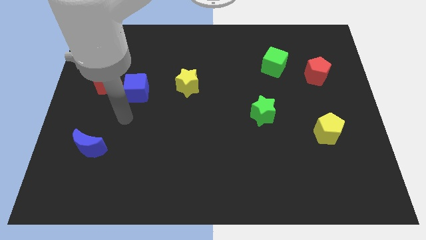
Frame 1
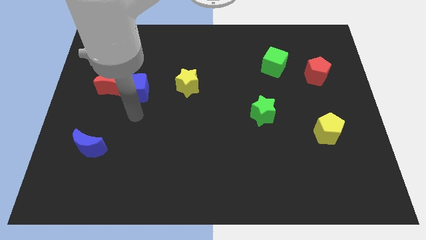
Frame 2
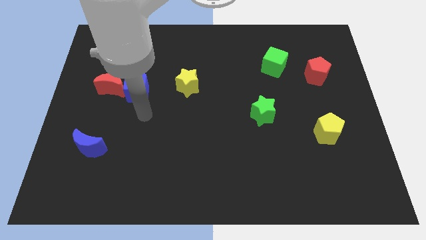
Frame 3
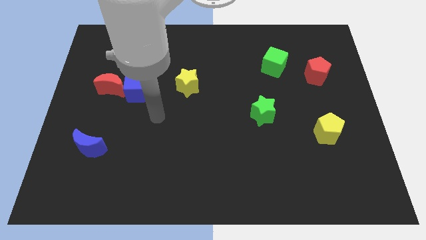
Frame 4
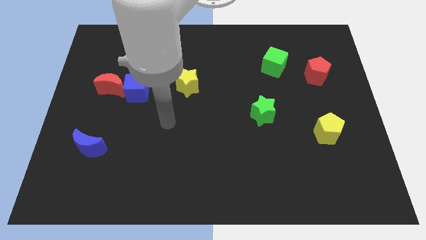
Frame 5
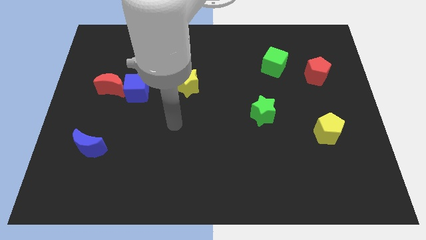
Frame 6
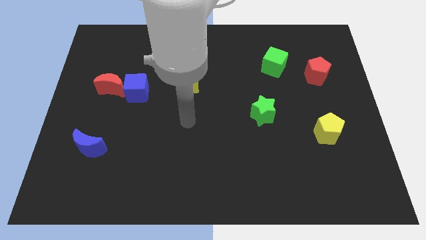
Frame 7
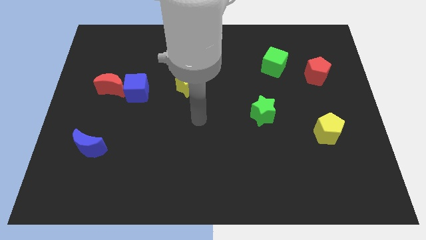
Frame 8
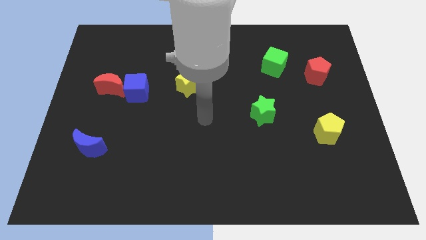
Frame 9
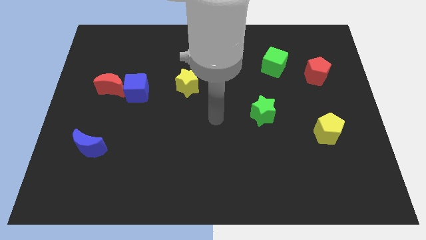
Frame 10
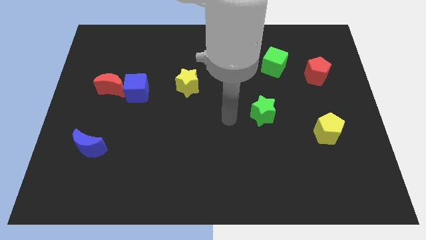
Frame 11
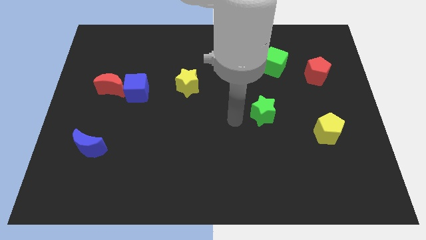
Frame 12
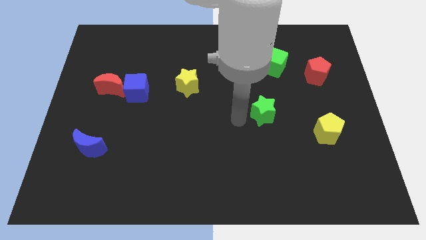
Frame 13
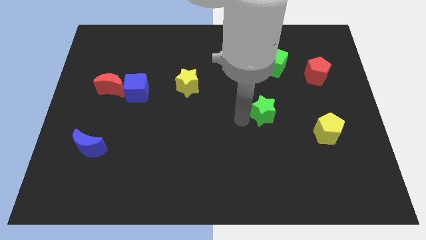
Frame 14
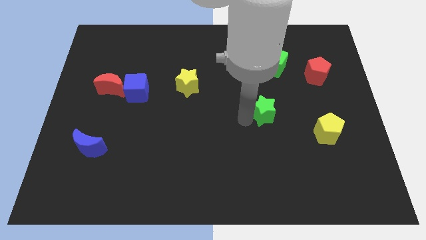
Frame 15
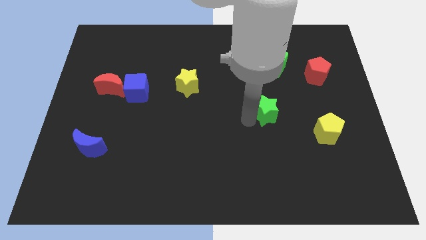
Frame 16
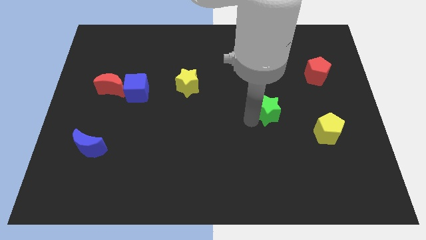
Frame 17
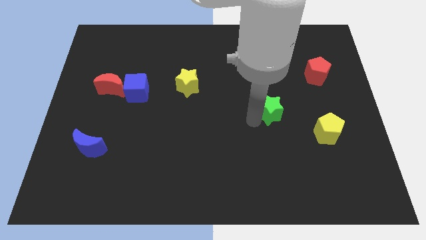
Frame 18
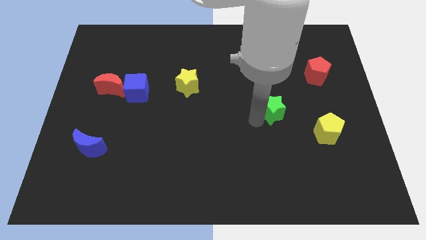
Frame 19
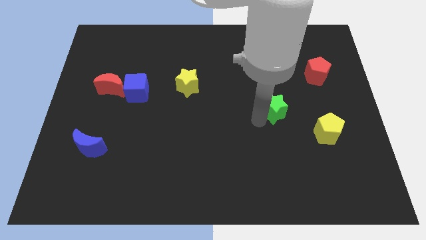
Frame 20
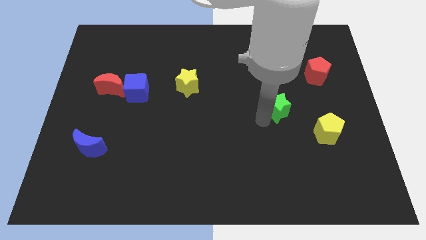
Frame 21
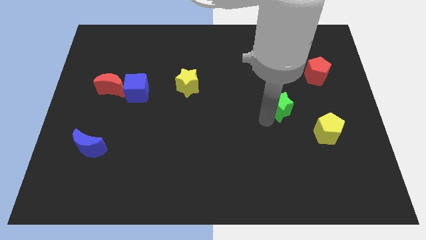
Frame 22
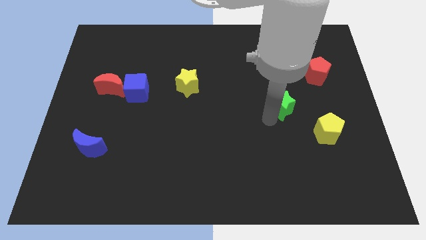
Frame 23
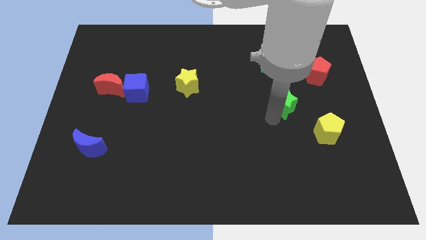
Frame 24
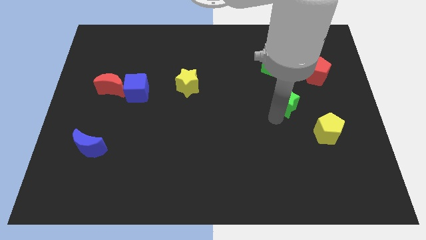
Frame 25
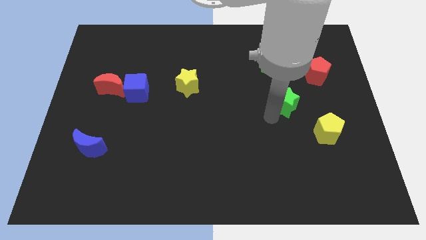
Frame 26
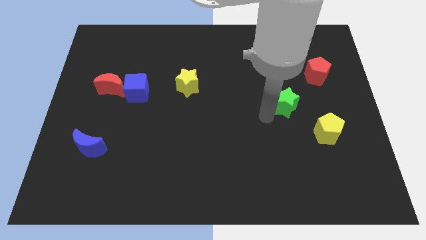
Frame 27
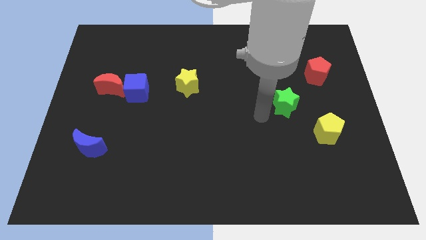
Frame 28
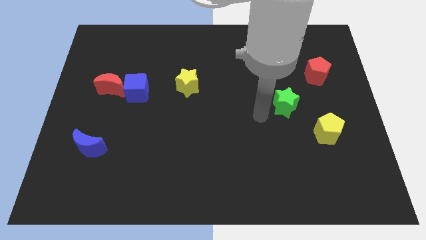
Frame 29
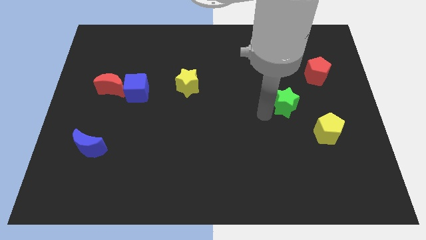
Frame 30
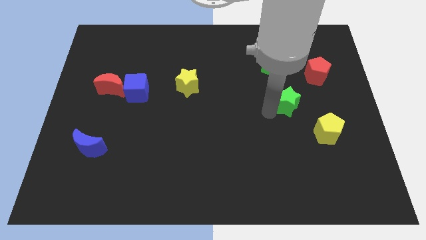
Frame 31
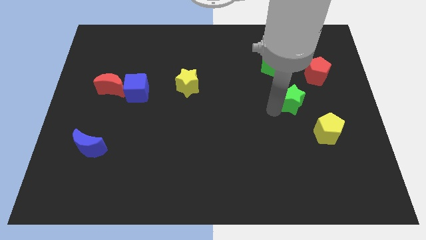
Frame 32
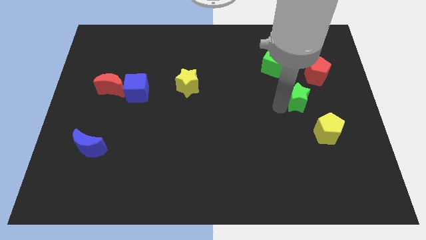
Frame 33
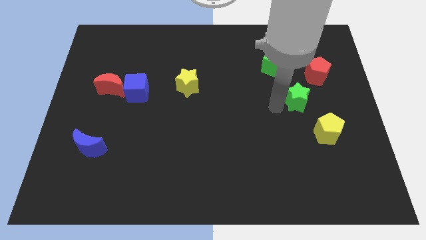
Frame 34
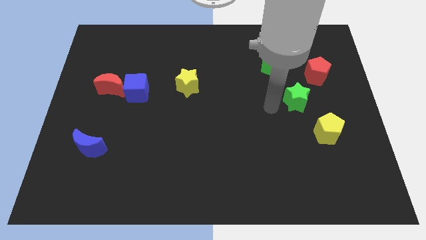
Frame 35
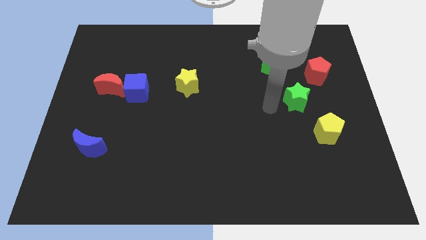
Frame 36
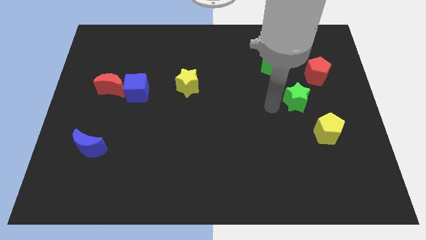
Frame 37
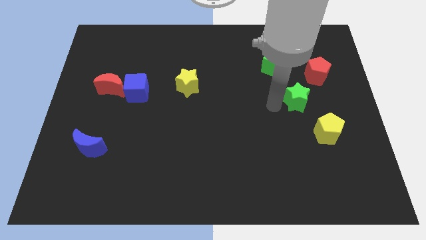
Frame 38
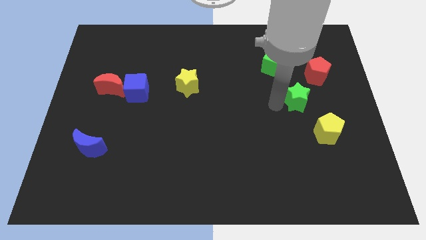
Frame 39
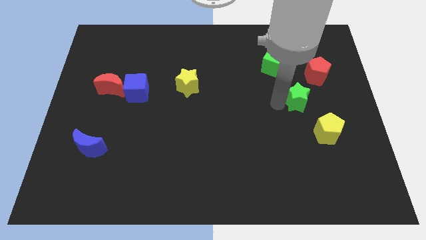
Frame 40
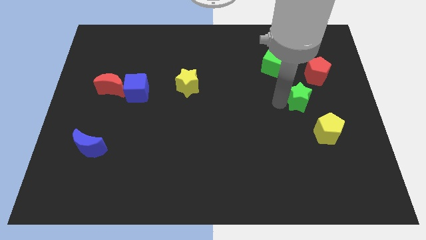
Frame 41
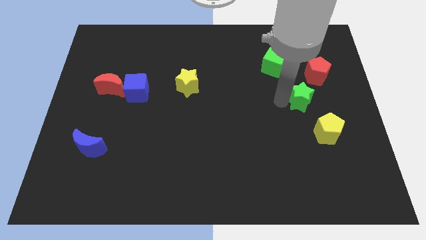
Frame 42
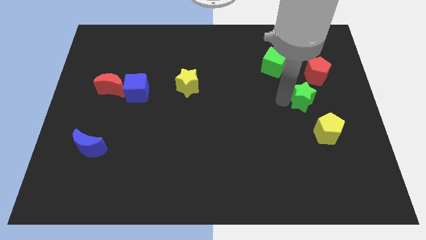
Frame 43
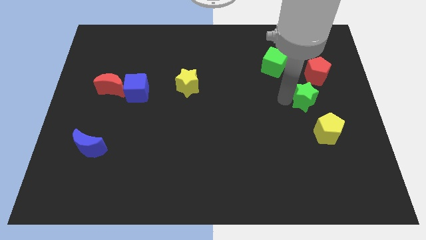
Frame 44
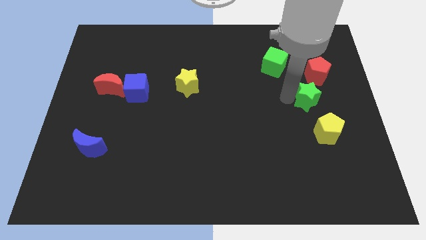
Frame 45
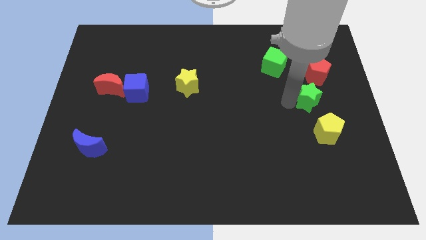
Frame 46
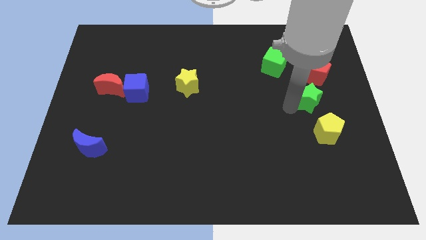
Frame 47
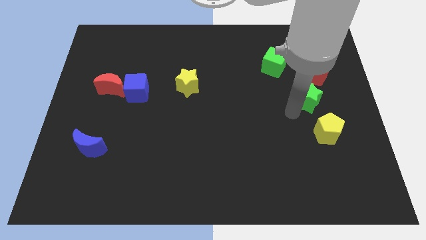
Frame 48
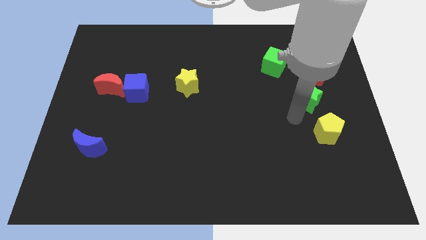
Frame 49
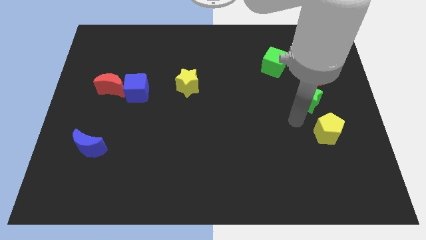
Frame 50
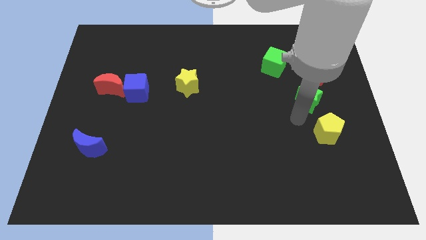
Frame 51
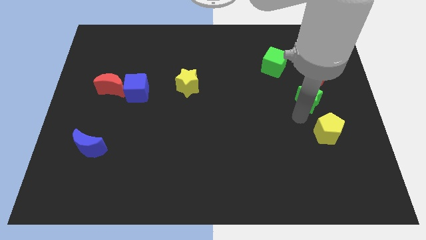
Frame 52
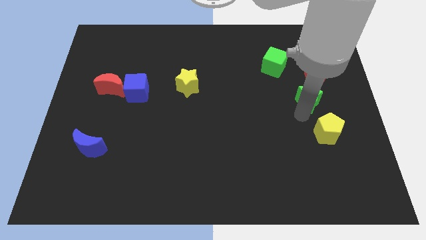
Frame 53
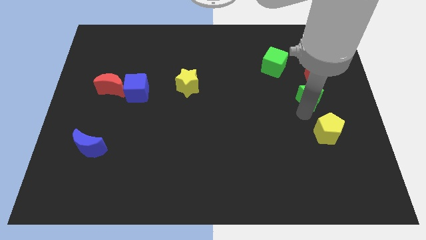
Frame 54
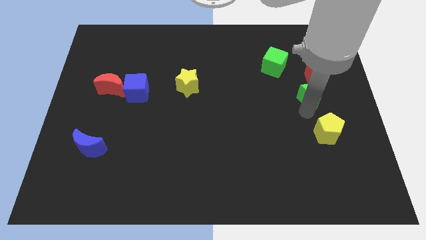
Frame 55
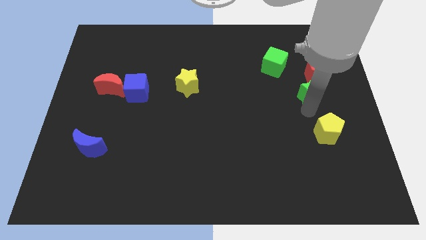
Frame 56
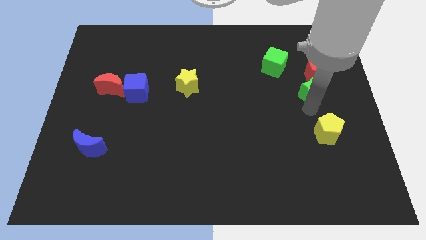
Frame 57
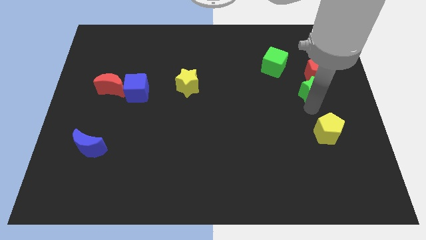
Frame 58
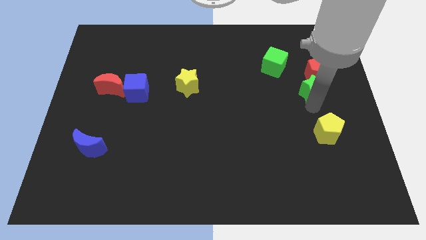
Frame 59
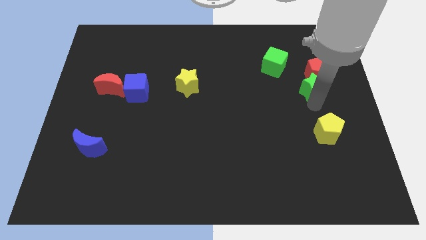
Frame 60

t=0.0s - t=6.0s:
move the green star next to the red pentagon

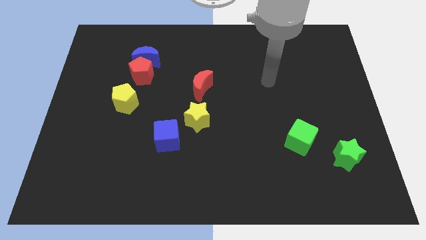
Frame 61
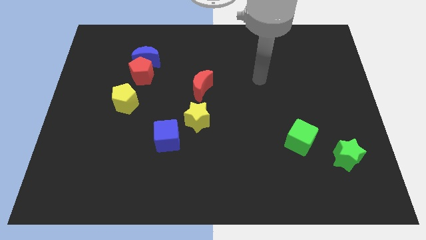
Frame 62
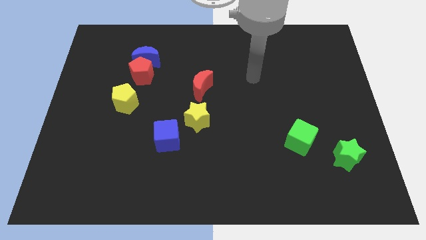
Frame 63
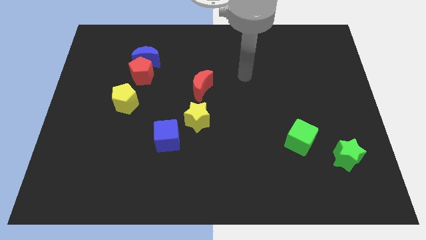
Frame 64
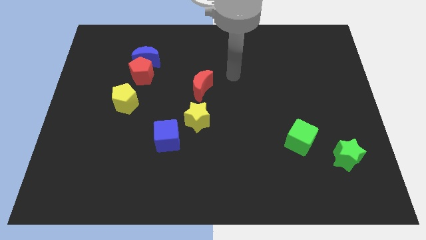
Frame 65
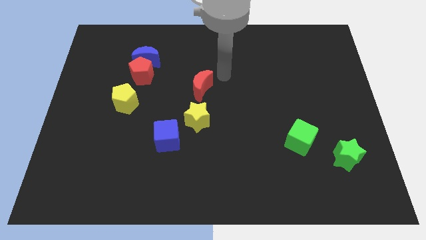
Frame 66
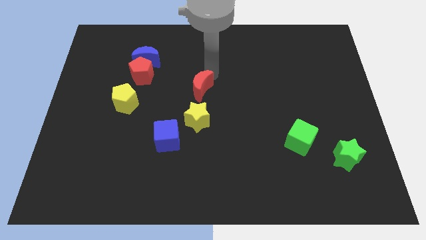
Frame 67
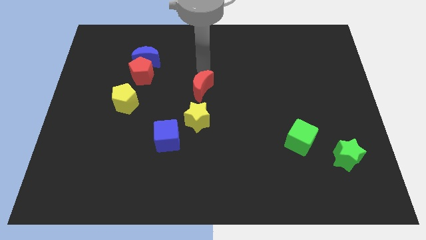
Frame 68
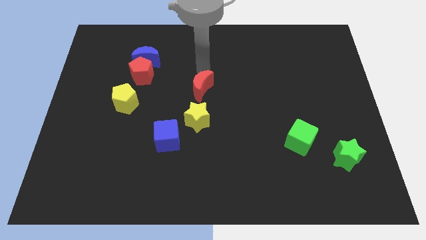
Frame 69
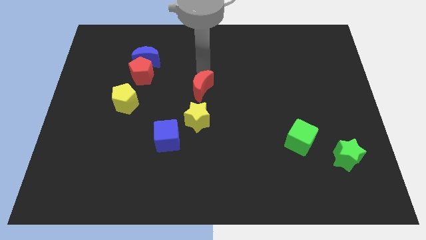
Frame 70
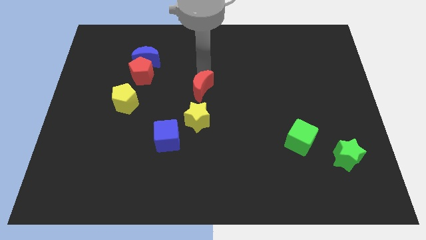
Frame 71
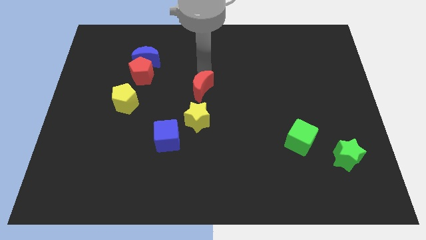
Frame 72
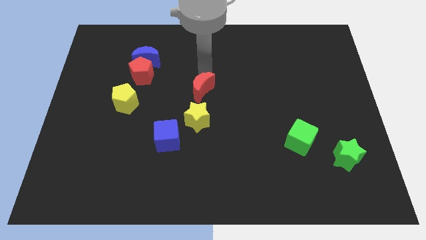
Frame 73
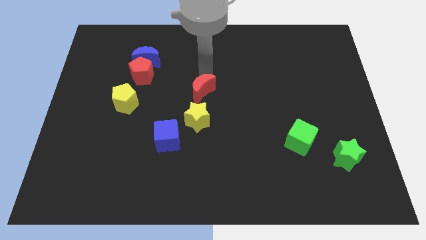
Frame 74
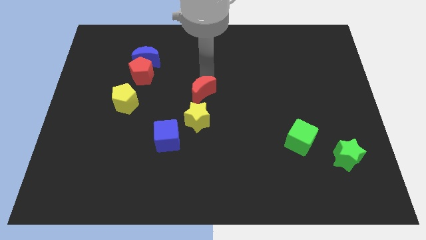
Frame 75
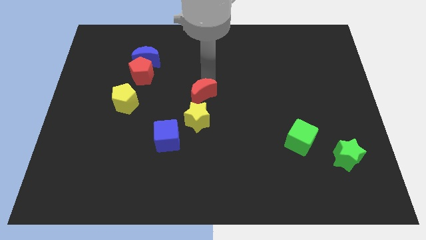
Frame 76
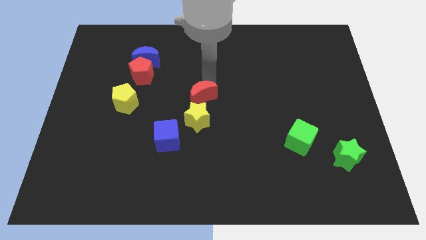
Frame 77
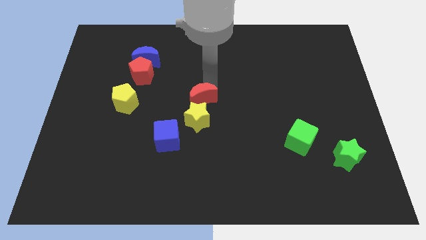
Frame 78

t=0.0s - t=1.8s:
put the red moon to the yellow star

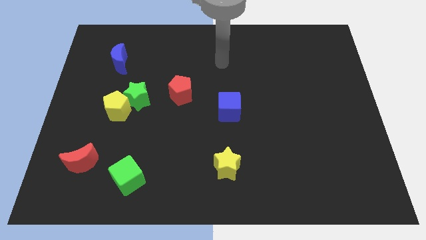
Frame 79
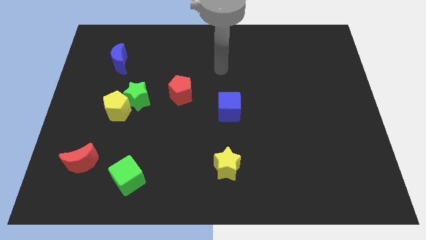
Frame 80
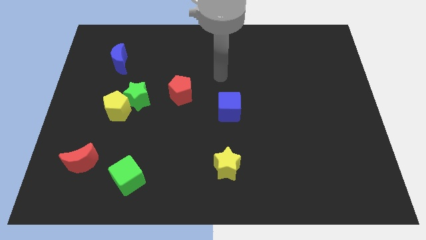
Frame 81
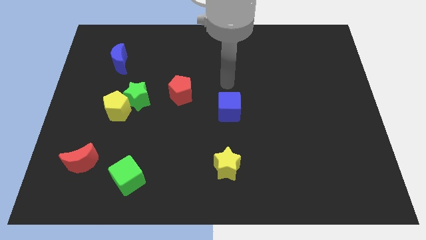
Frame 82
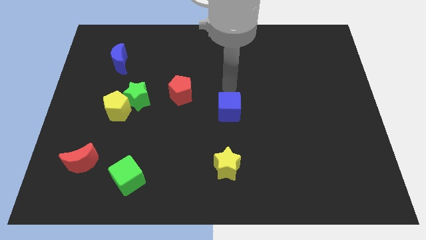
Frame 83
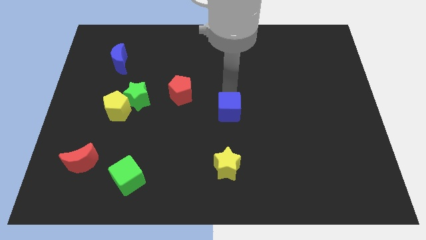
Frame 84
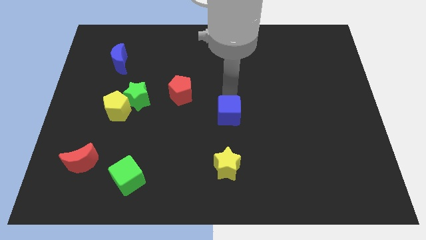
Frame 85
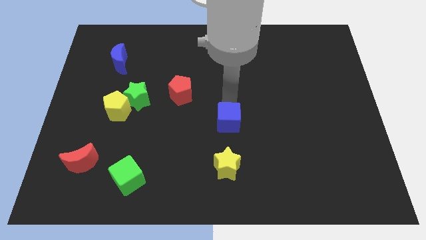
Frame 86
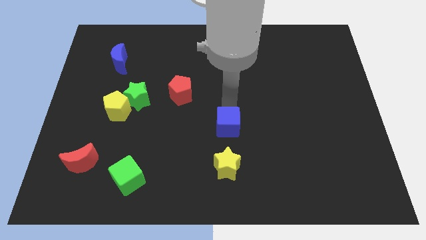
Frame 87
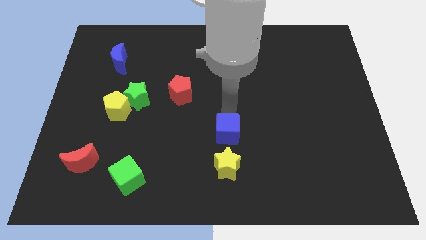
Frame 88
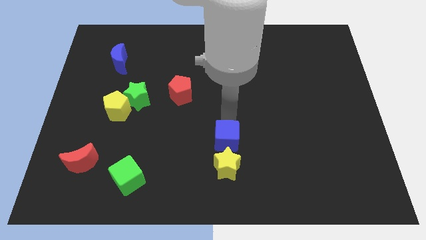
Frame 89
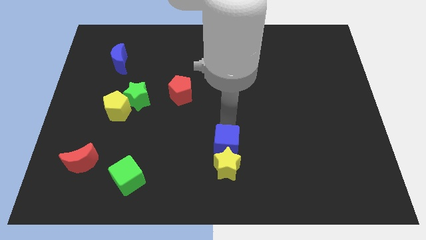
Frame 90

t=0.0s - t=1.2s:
push the blue cube next to the yellow star
